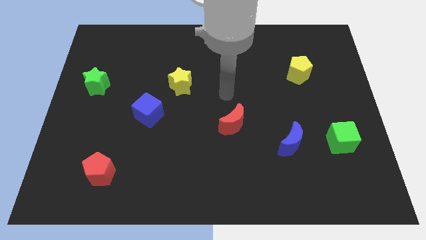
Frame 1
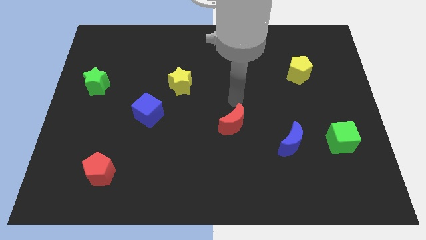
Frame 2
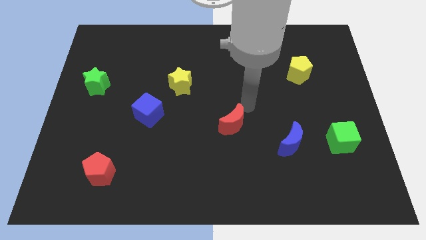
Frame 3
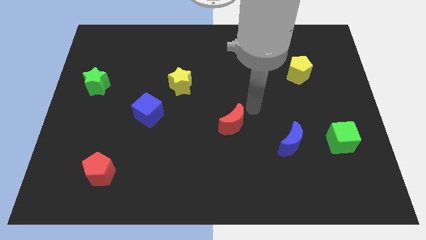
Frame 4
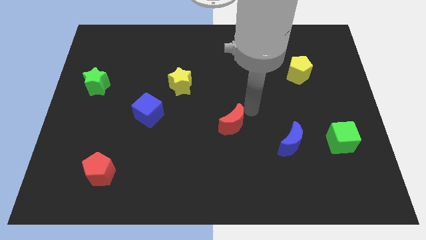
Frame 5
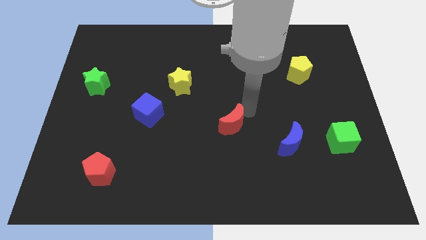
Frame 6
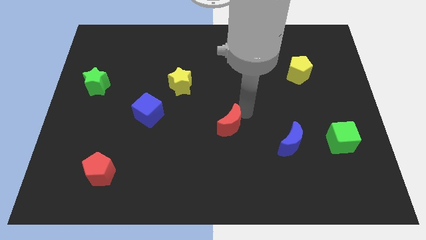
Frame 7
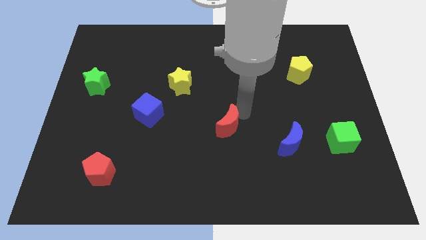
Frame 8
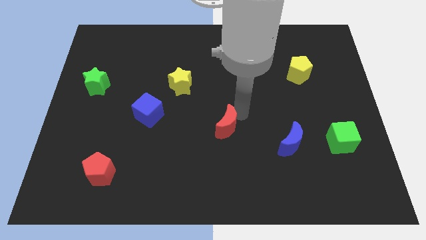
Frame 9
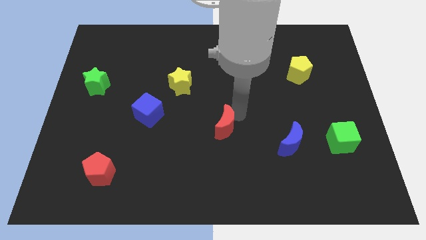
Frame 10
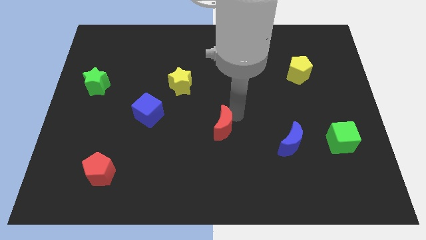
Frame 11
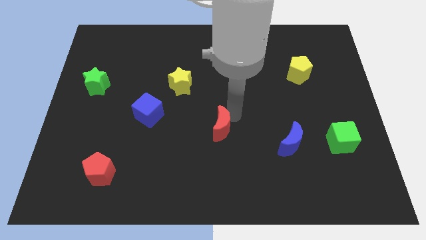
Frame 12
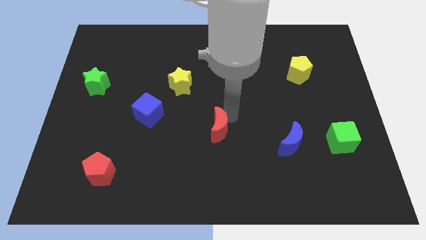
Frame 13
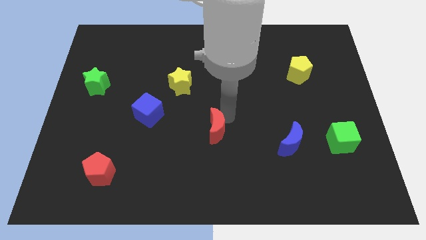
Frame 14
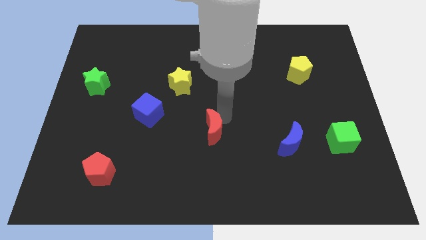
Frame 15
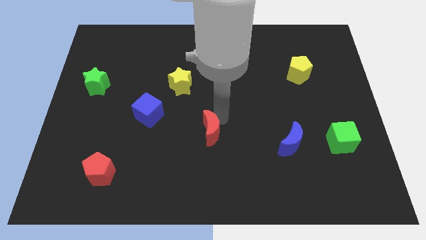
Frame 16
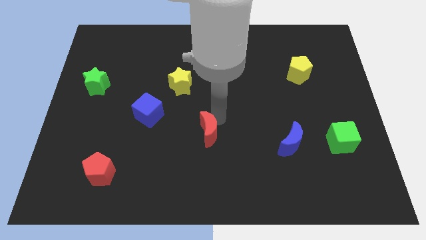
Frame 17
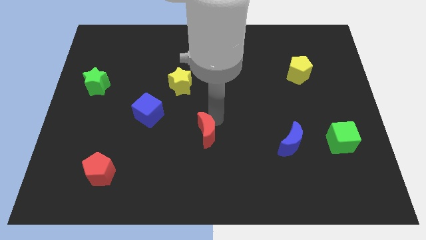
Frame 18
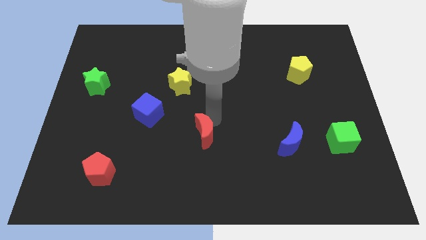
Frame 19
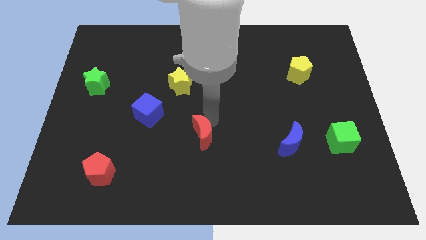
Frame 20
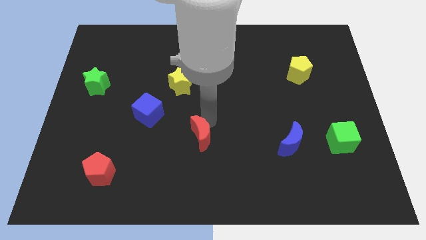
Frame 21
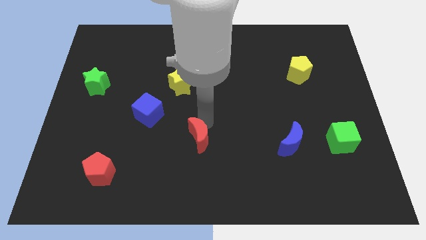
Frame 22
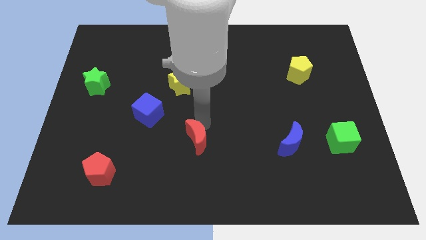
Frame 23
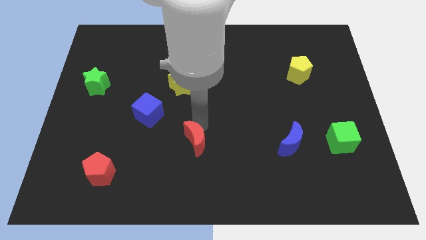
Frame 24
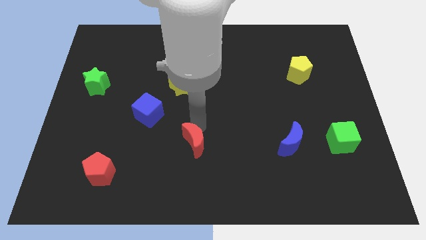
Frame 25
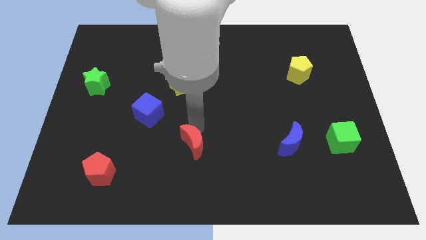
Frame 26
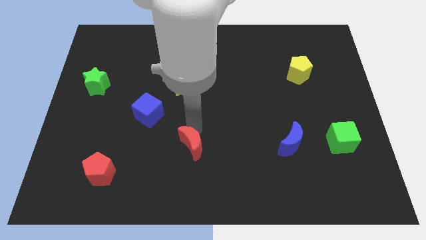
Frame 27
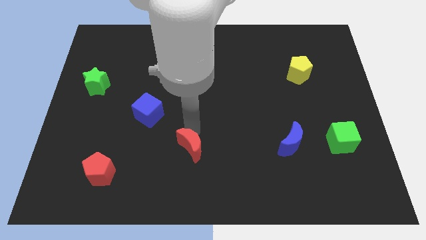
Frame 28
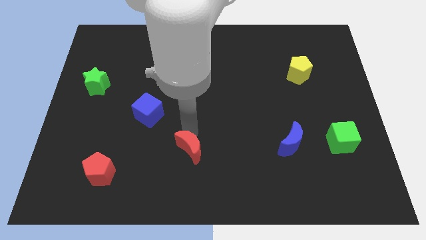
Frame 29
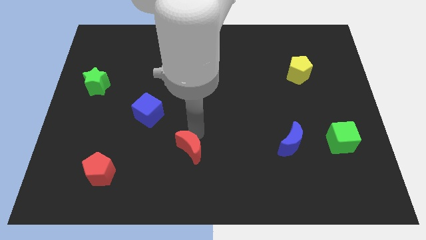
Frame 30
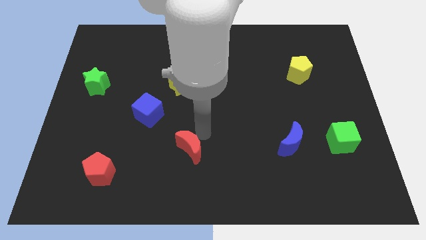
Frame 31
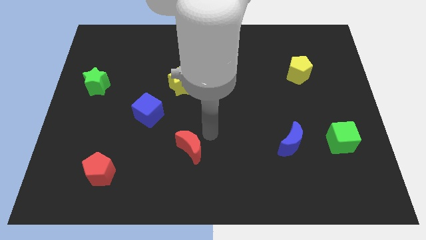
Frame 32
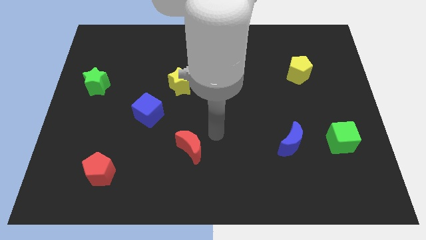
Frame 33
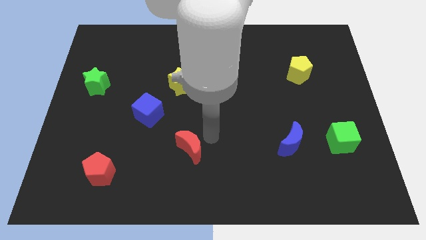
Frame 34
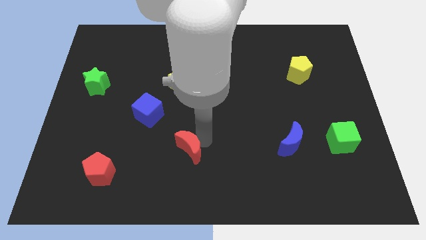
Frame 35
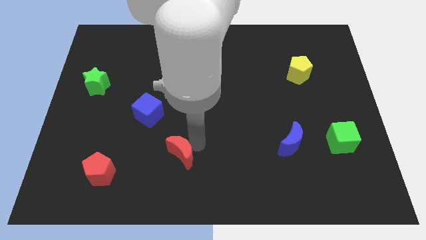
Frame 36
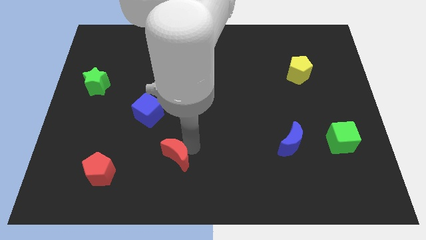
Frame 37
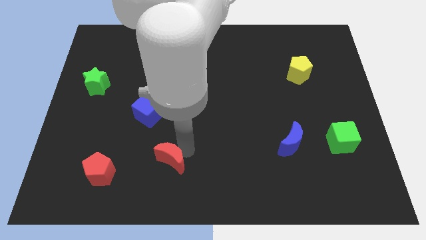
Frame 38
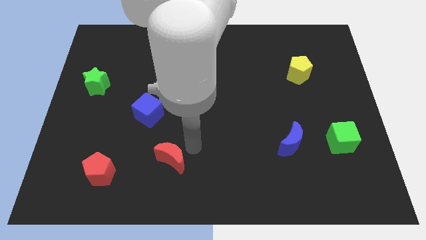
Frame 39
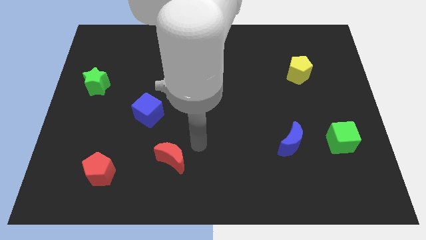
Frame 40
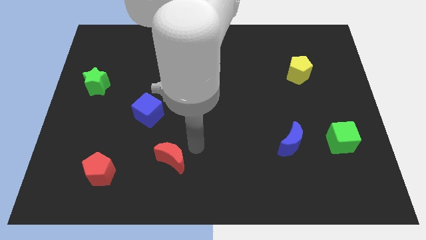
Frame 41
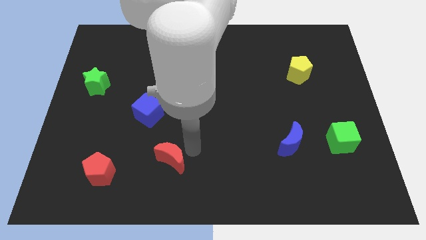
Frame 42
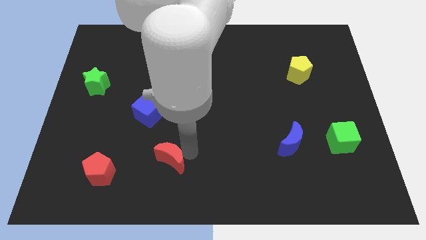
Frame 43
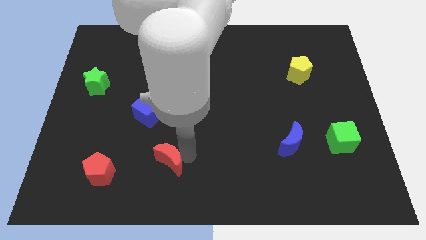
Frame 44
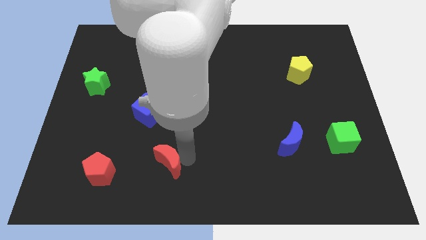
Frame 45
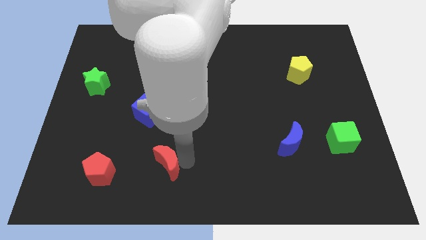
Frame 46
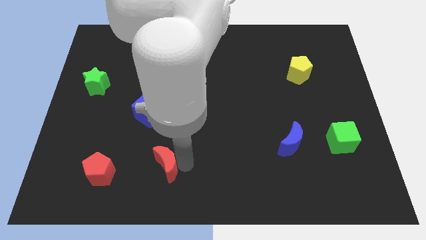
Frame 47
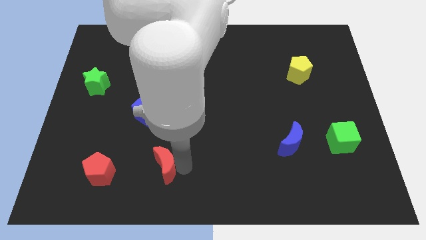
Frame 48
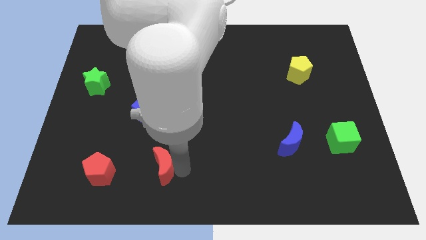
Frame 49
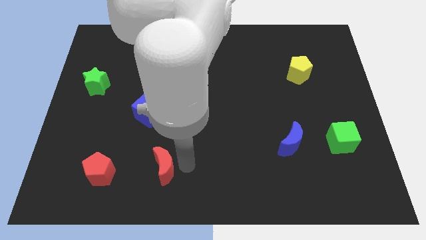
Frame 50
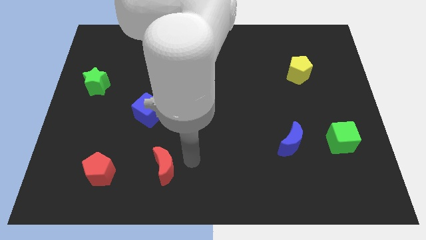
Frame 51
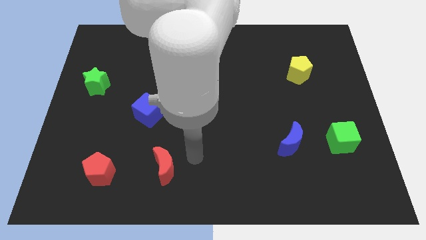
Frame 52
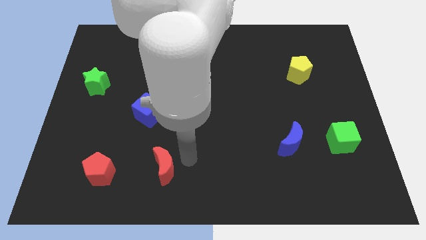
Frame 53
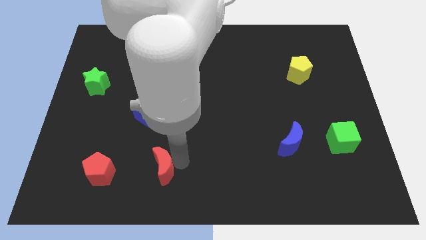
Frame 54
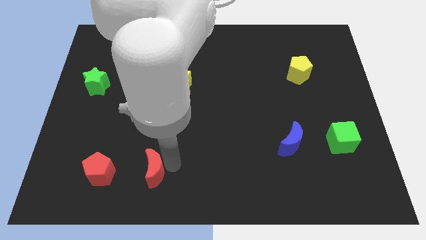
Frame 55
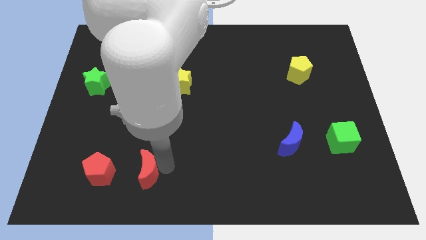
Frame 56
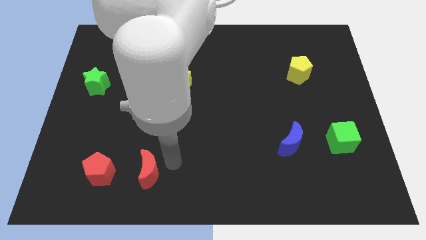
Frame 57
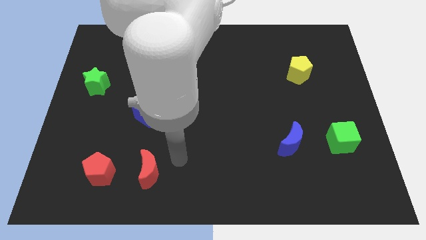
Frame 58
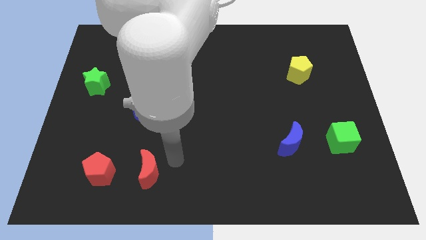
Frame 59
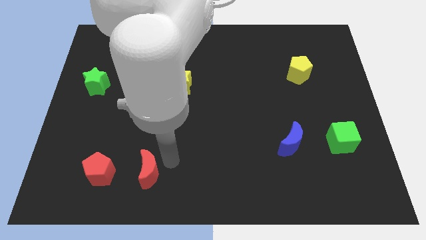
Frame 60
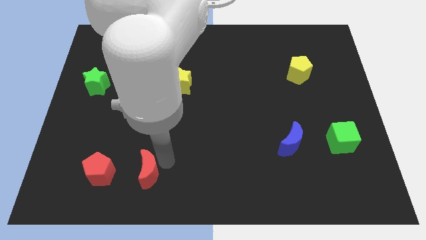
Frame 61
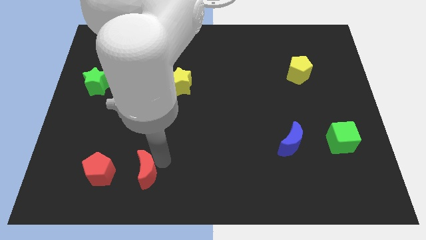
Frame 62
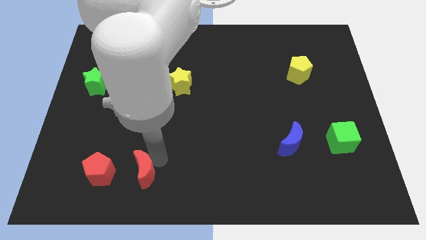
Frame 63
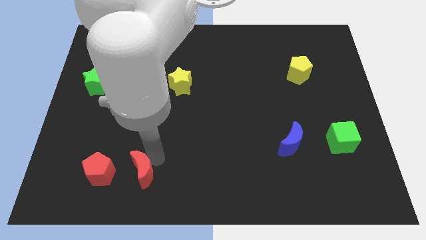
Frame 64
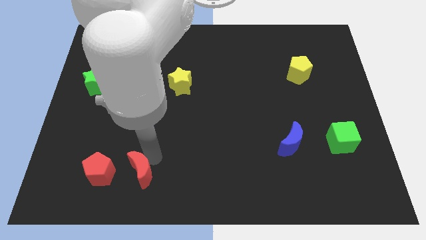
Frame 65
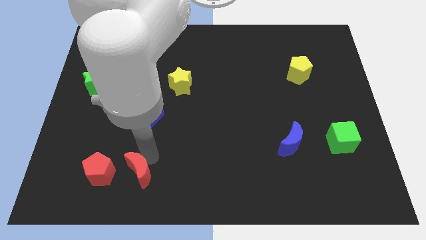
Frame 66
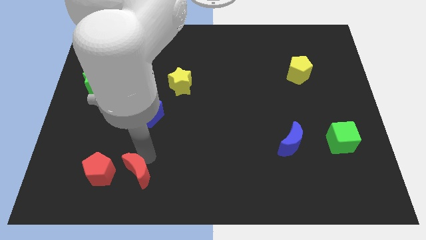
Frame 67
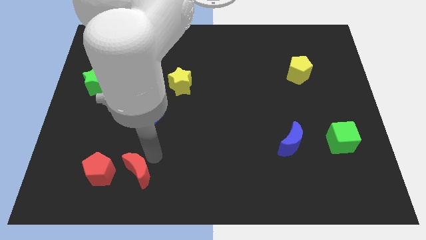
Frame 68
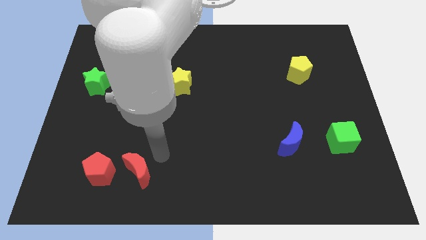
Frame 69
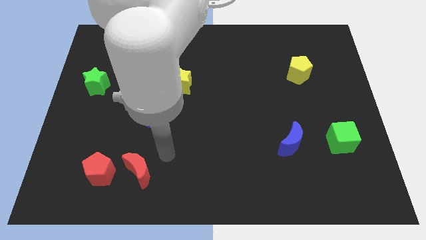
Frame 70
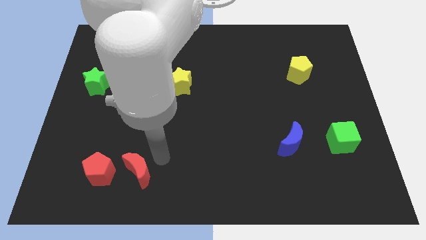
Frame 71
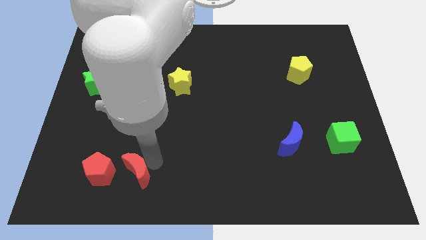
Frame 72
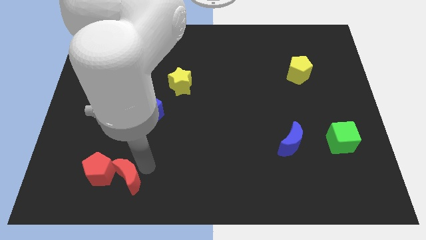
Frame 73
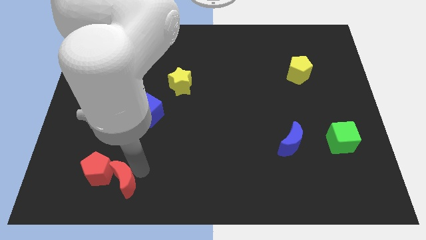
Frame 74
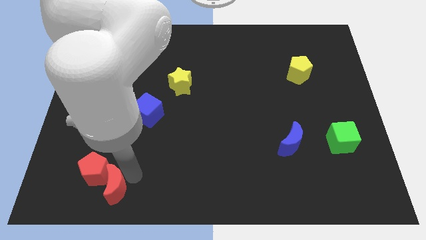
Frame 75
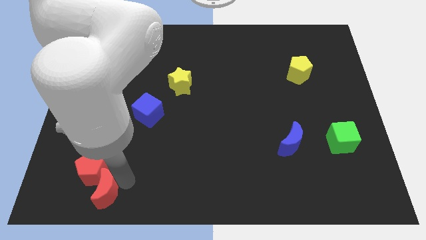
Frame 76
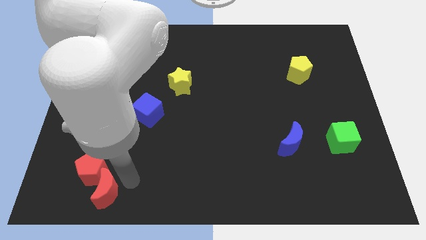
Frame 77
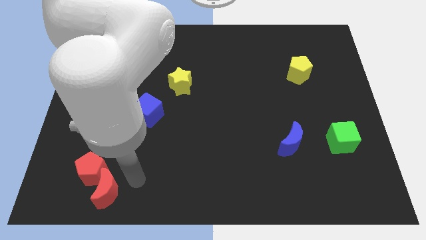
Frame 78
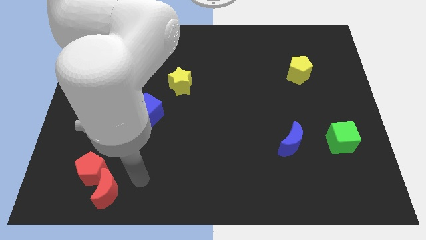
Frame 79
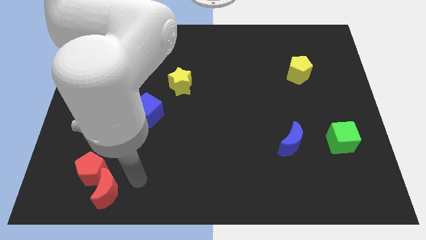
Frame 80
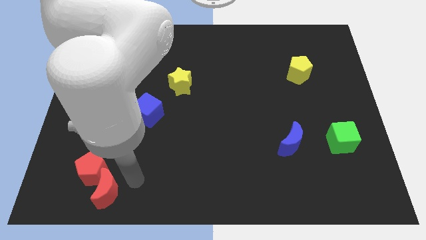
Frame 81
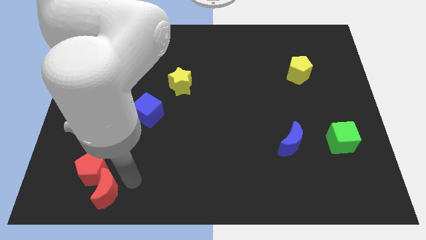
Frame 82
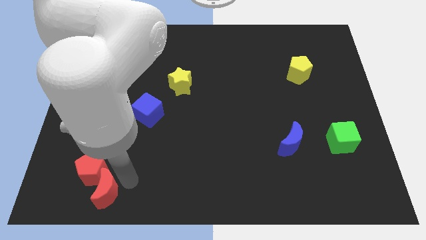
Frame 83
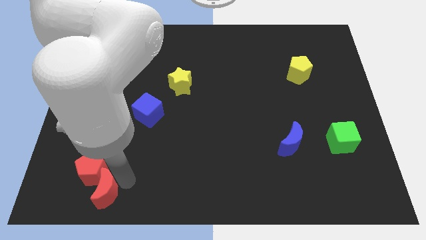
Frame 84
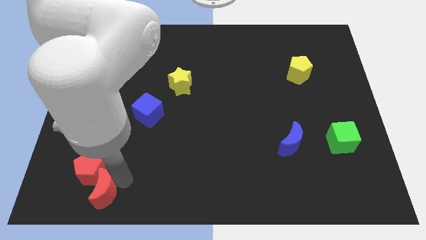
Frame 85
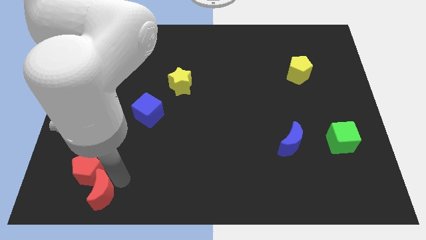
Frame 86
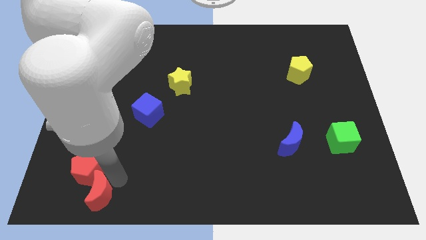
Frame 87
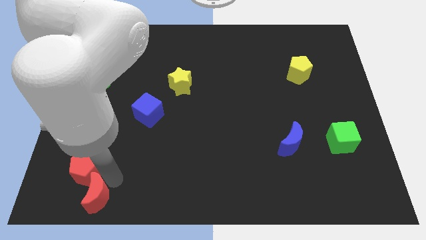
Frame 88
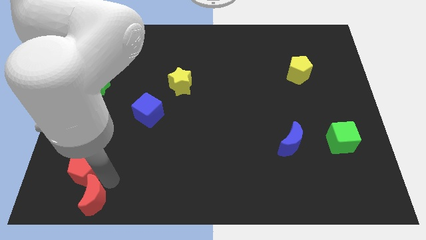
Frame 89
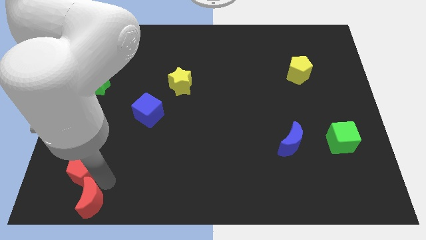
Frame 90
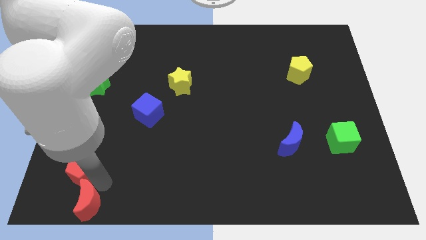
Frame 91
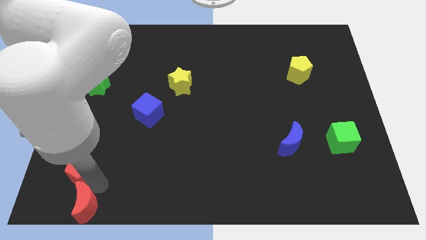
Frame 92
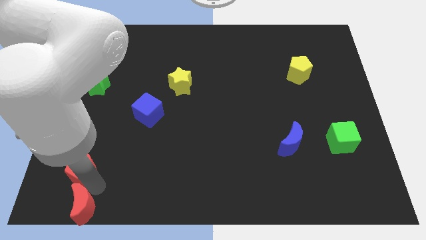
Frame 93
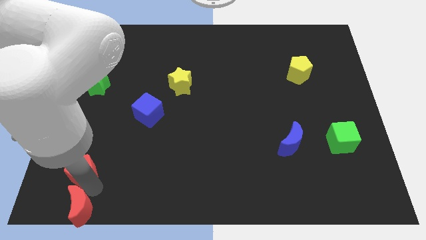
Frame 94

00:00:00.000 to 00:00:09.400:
put the red moon to the bottom left of the board
